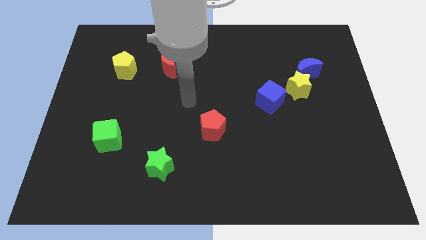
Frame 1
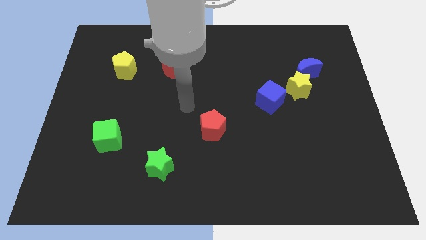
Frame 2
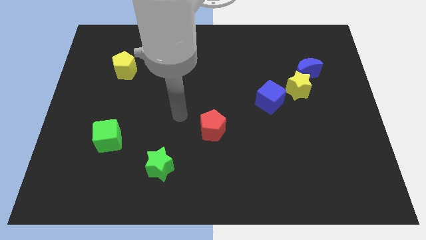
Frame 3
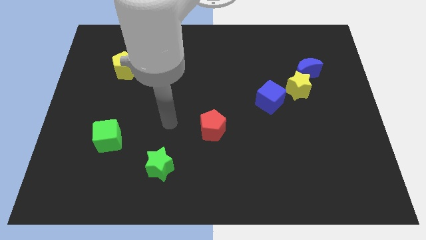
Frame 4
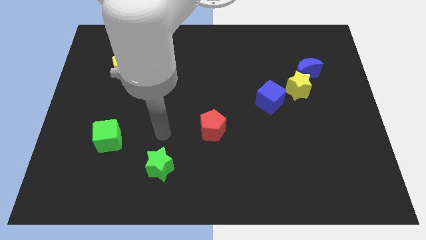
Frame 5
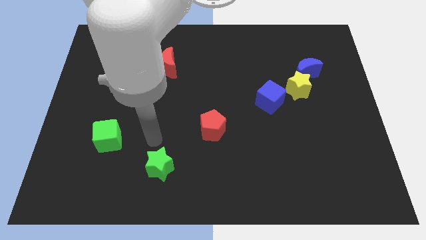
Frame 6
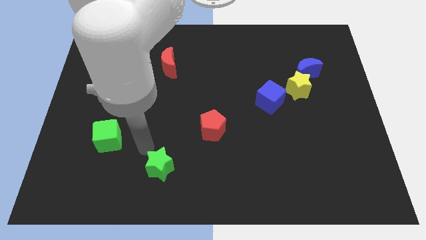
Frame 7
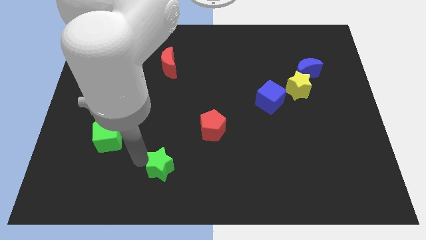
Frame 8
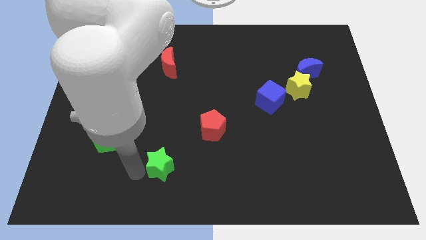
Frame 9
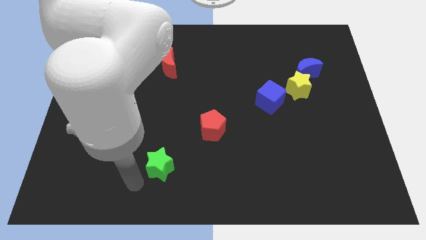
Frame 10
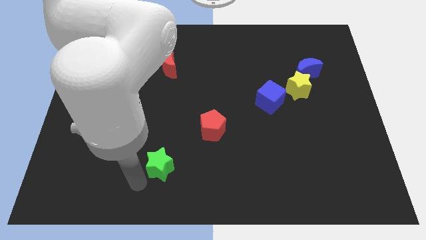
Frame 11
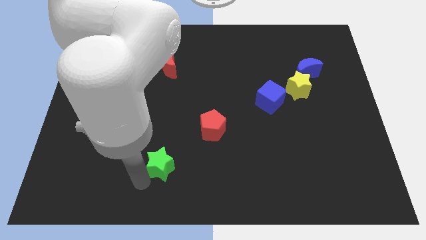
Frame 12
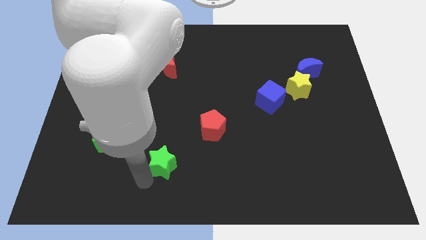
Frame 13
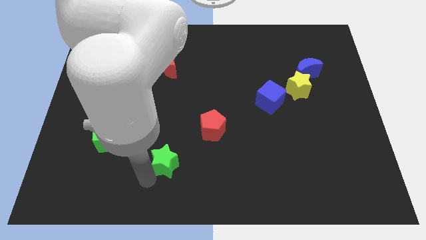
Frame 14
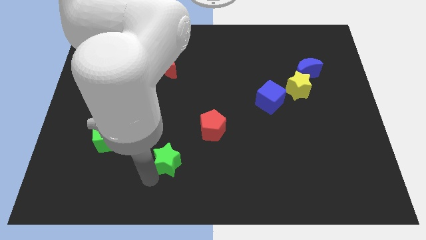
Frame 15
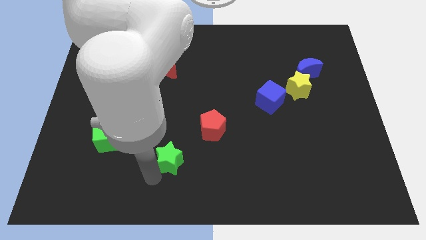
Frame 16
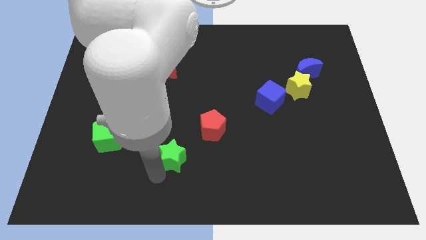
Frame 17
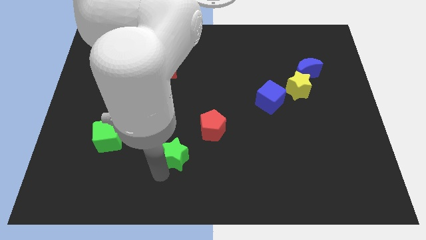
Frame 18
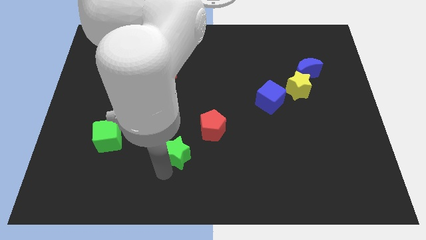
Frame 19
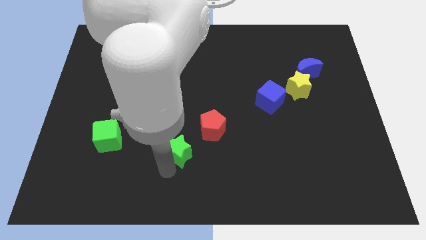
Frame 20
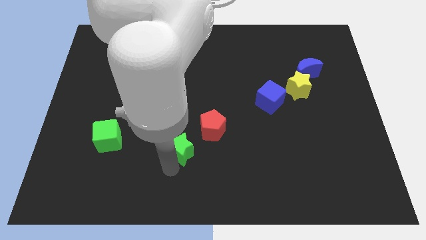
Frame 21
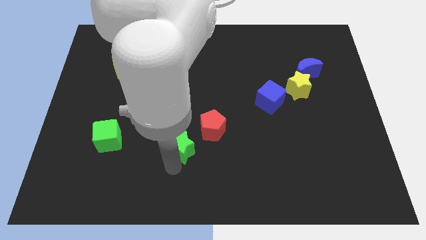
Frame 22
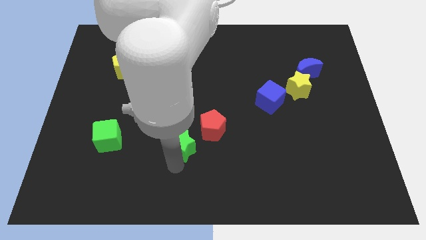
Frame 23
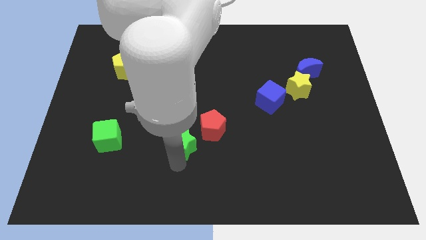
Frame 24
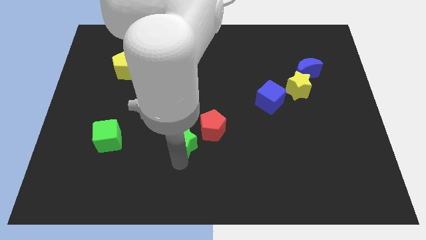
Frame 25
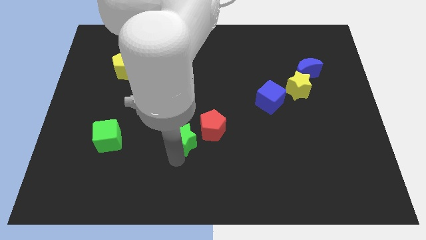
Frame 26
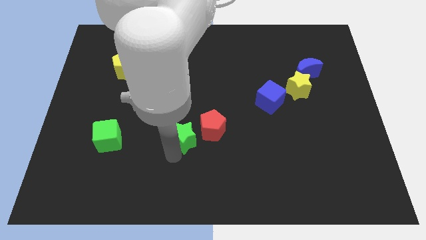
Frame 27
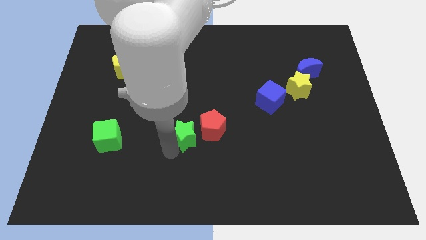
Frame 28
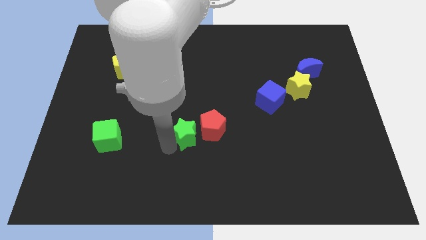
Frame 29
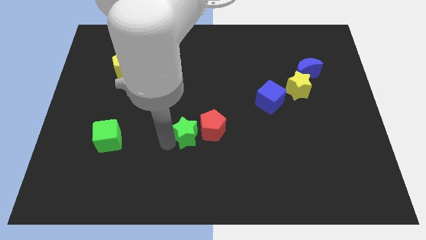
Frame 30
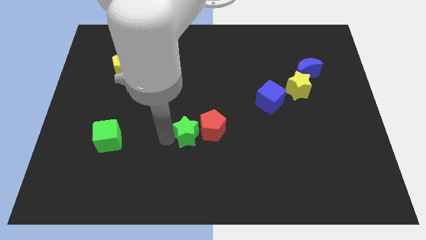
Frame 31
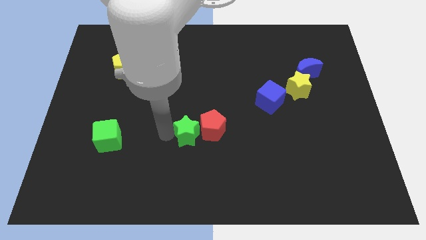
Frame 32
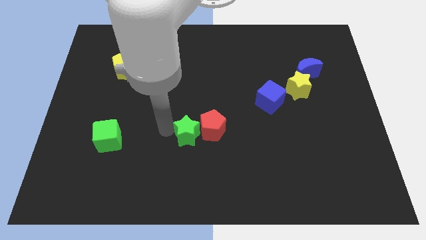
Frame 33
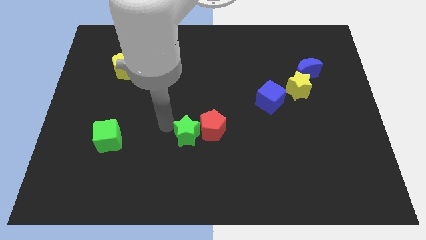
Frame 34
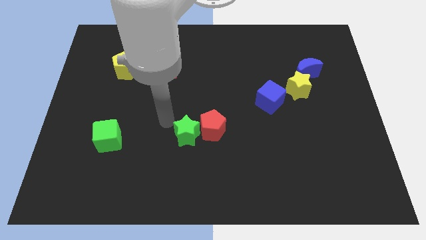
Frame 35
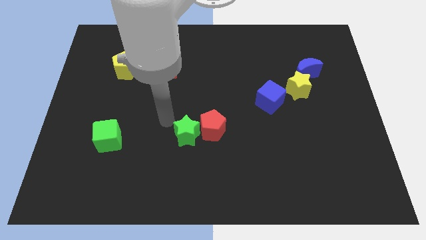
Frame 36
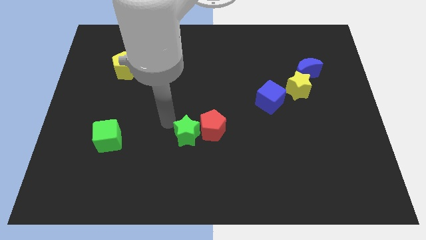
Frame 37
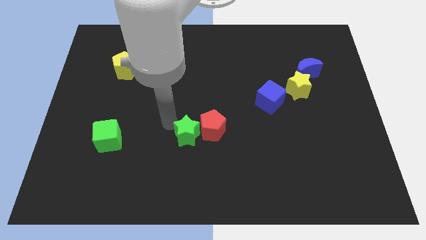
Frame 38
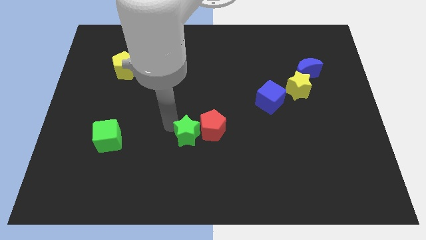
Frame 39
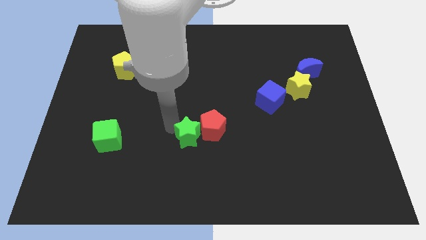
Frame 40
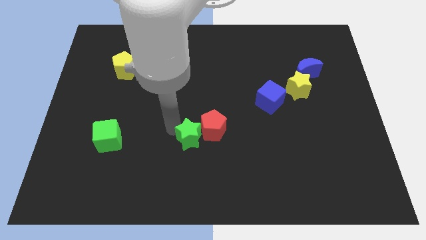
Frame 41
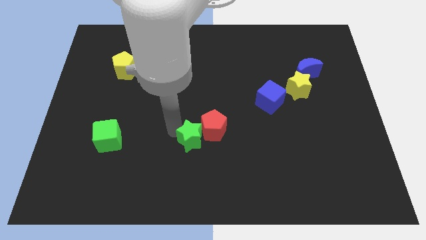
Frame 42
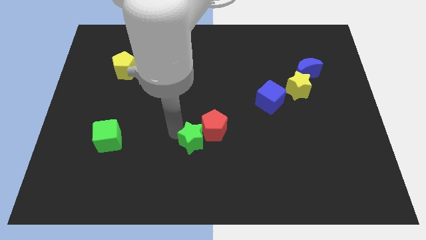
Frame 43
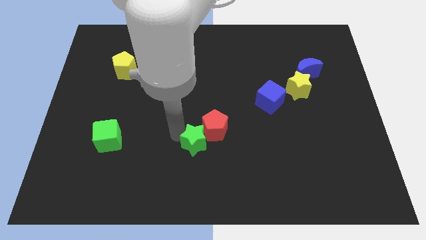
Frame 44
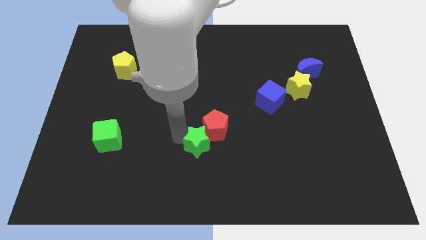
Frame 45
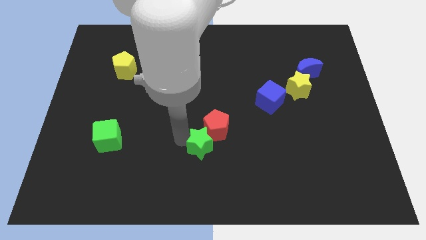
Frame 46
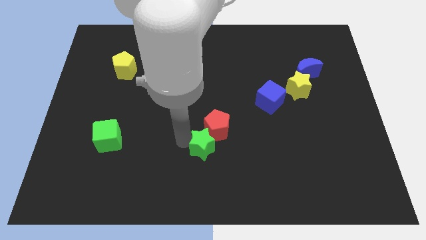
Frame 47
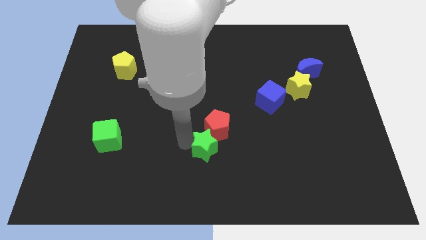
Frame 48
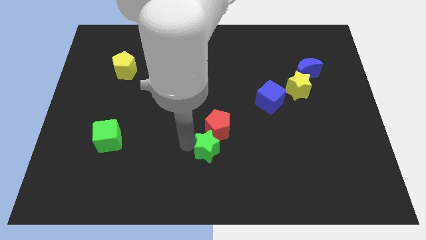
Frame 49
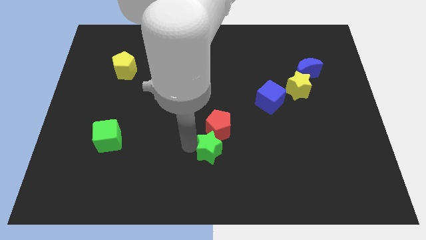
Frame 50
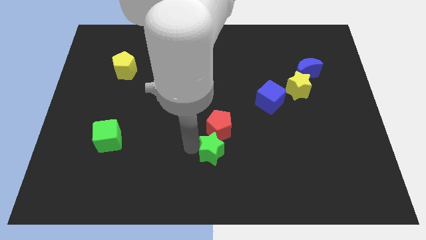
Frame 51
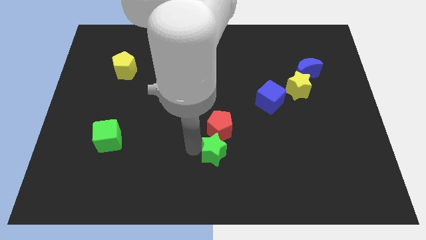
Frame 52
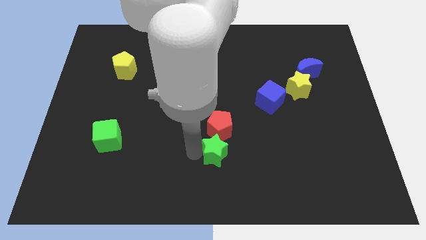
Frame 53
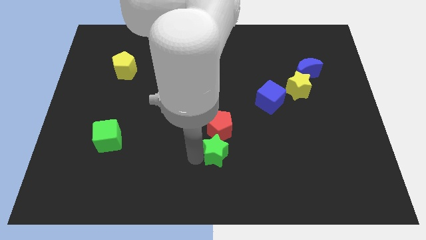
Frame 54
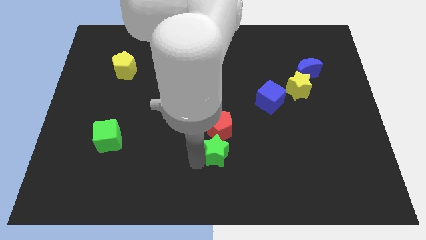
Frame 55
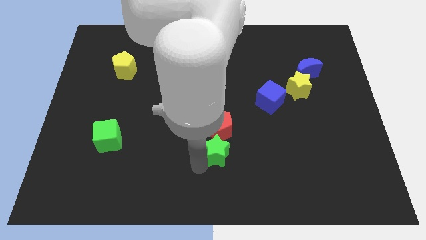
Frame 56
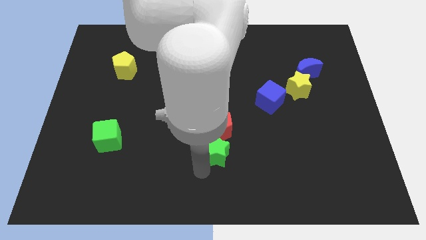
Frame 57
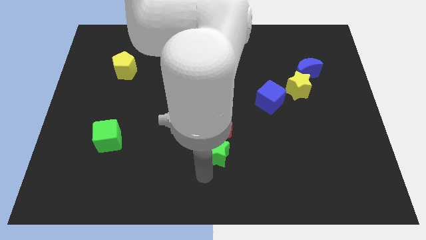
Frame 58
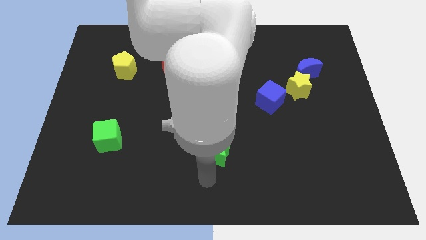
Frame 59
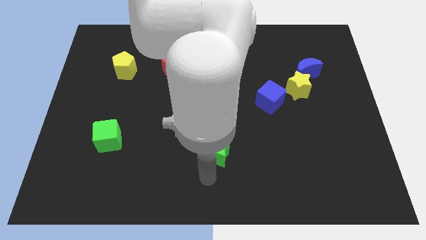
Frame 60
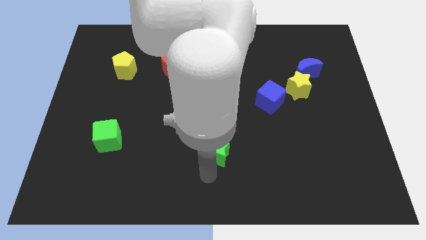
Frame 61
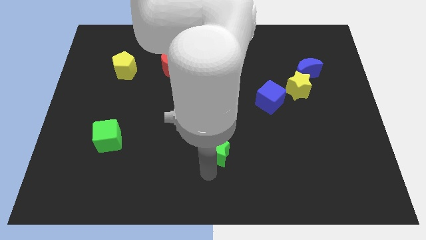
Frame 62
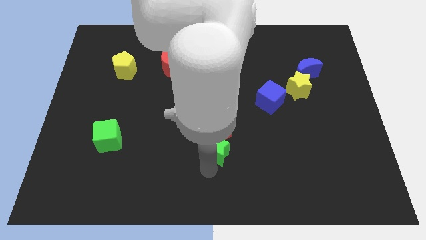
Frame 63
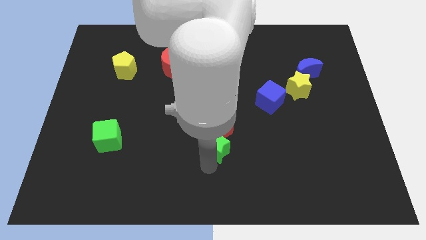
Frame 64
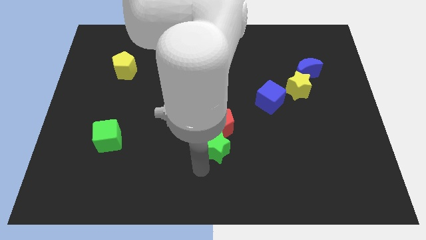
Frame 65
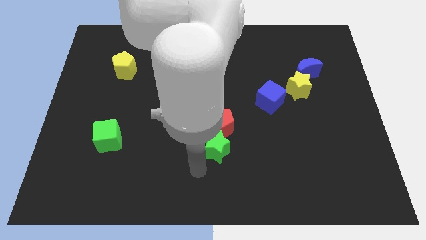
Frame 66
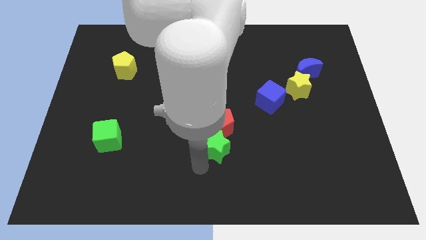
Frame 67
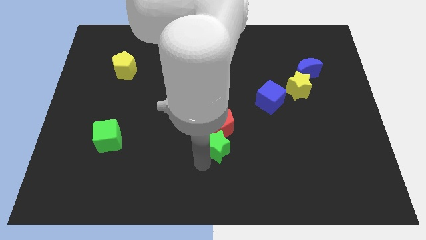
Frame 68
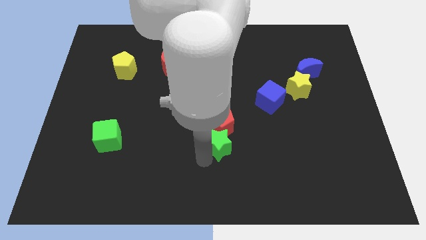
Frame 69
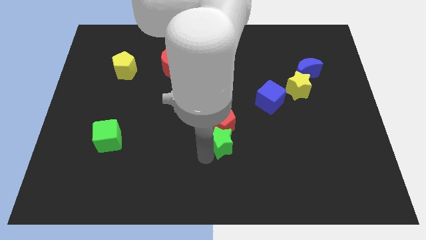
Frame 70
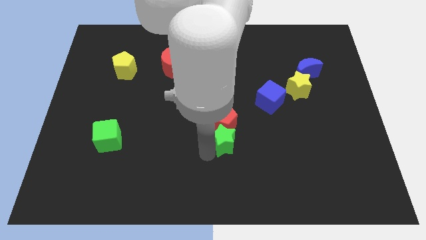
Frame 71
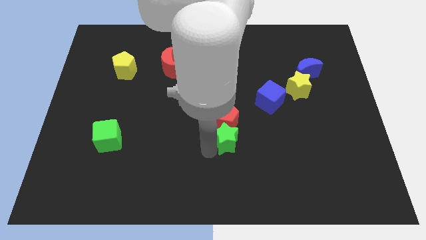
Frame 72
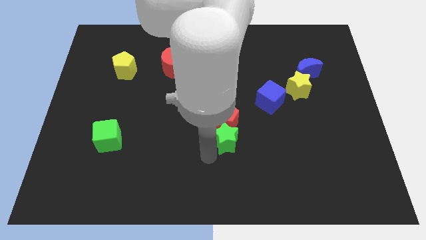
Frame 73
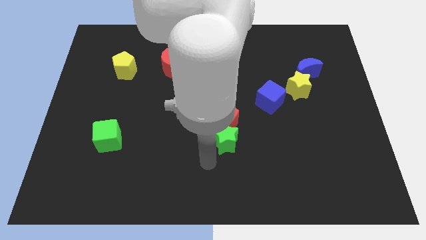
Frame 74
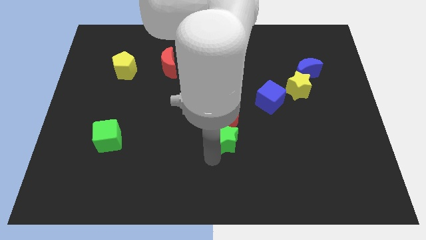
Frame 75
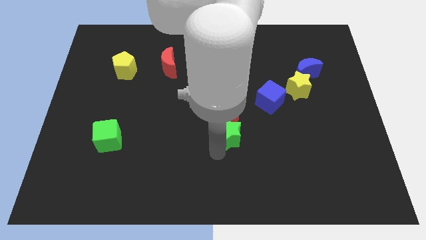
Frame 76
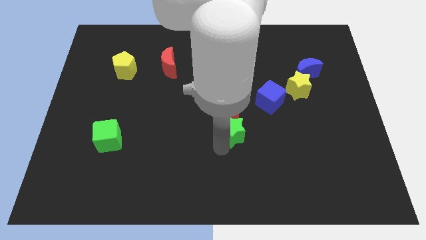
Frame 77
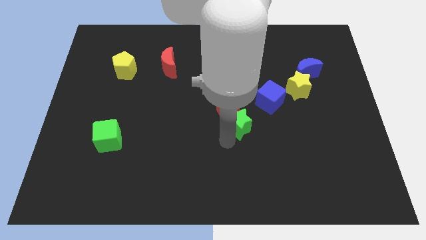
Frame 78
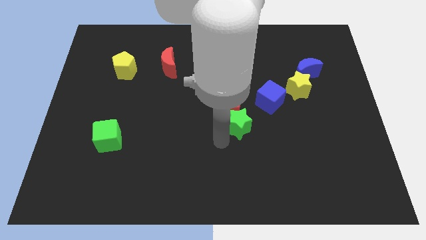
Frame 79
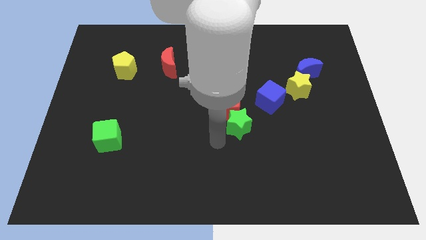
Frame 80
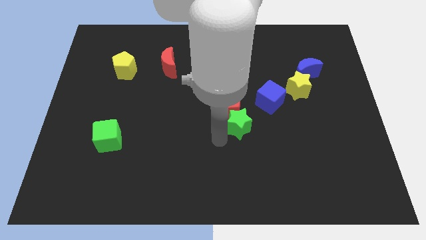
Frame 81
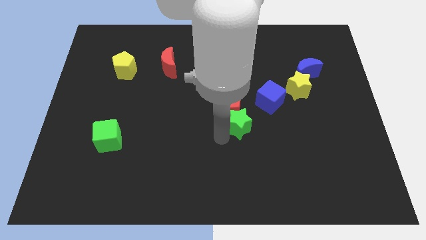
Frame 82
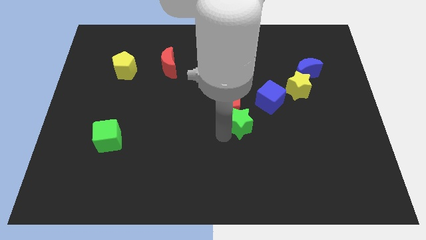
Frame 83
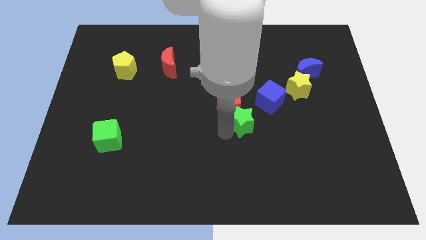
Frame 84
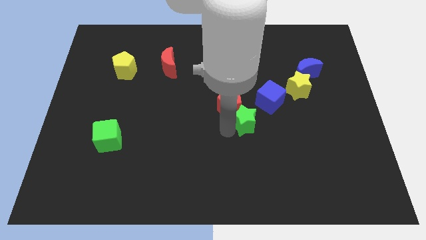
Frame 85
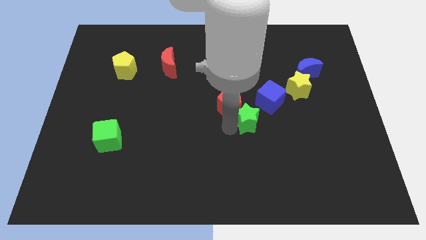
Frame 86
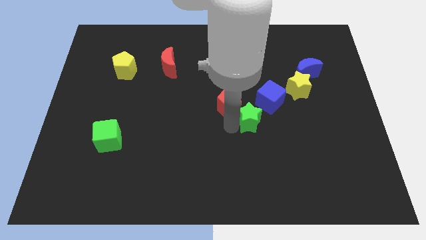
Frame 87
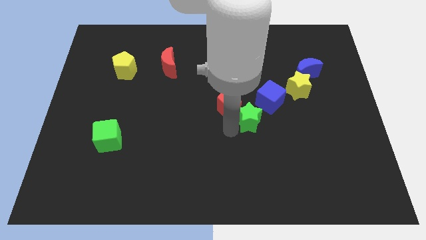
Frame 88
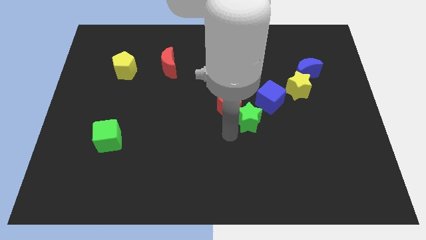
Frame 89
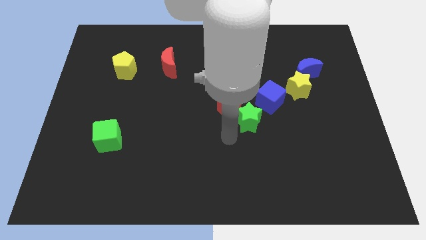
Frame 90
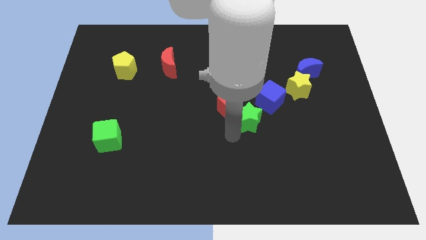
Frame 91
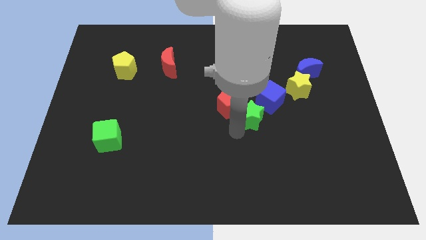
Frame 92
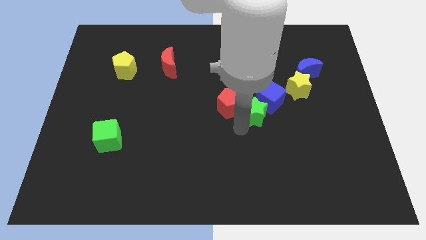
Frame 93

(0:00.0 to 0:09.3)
push the green star close to the blue cube
